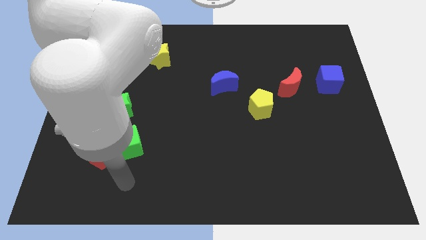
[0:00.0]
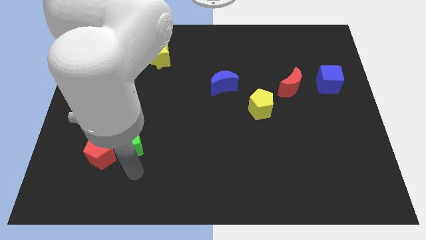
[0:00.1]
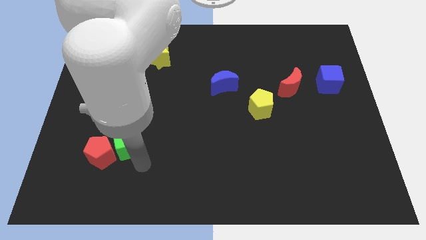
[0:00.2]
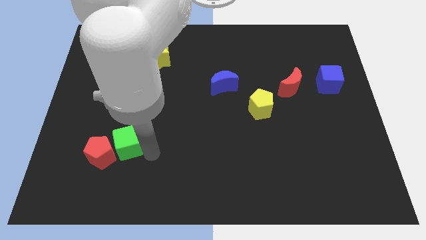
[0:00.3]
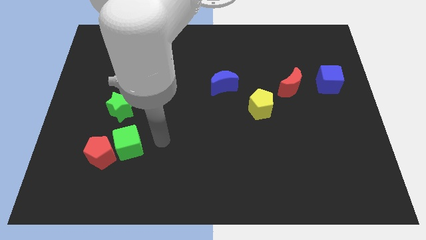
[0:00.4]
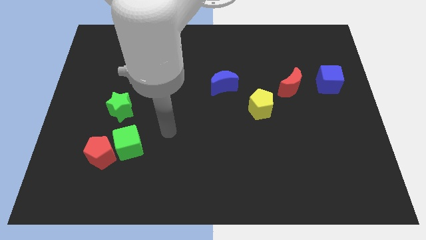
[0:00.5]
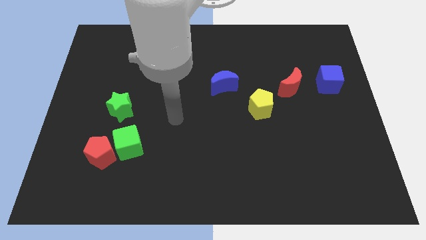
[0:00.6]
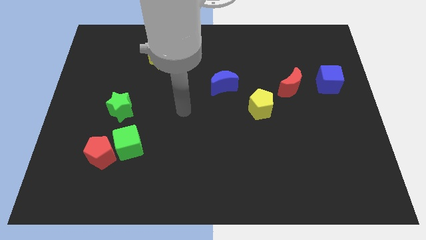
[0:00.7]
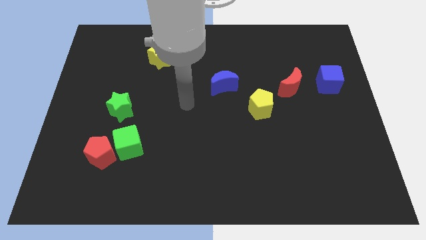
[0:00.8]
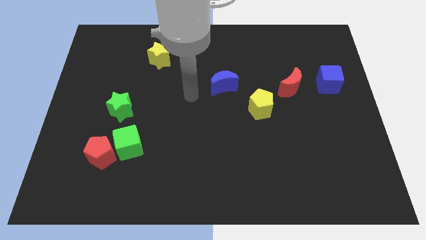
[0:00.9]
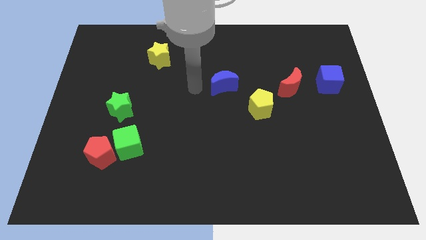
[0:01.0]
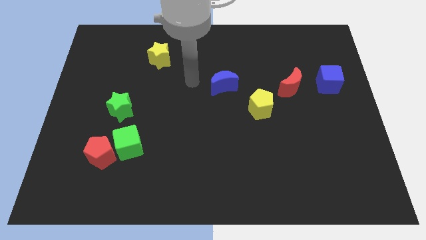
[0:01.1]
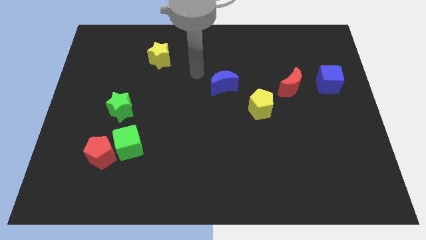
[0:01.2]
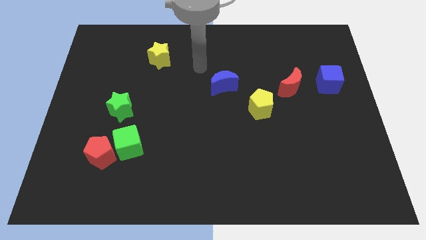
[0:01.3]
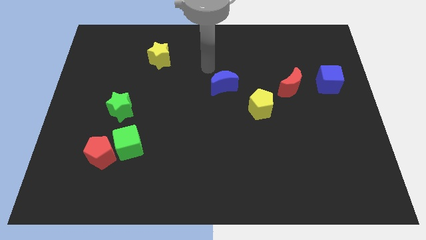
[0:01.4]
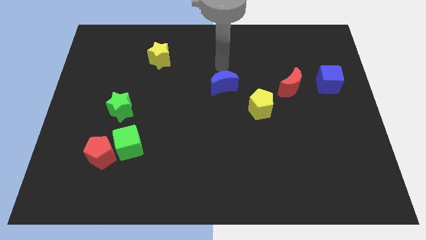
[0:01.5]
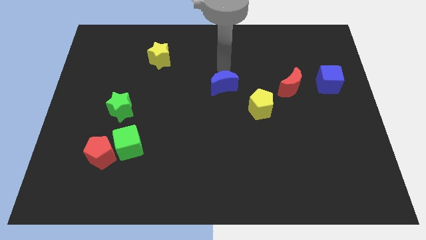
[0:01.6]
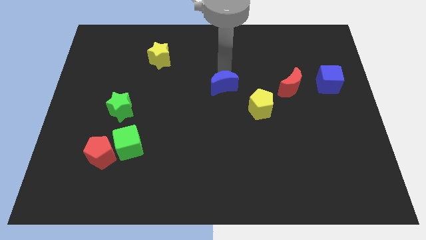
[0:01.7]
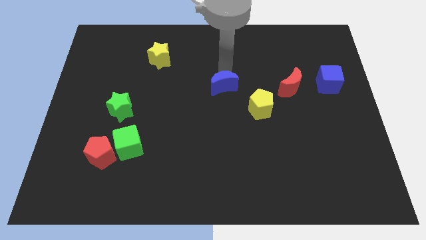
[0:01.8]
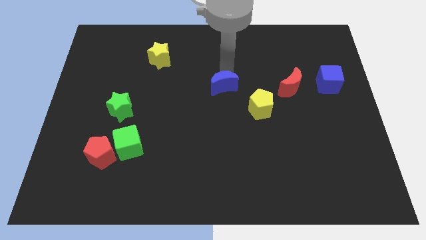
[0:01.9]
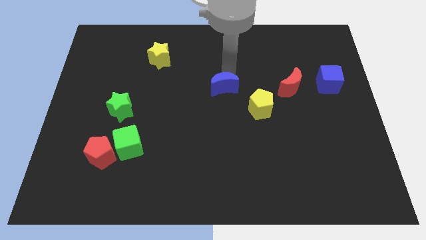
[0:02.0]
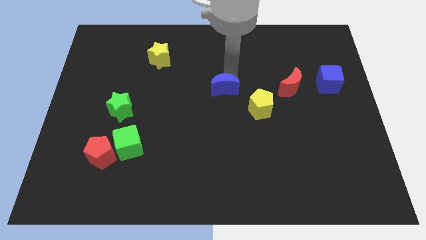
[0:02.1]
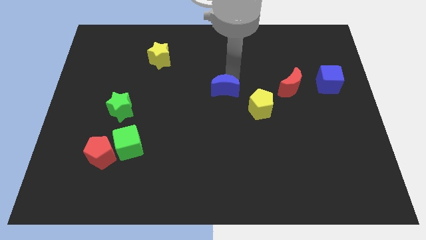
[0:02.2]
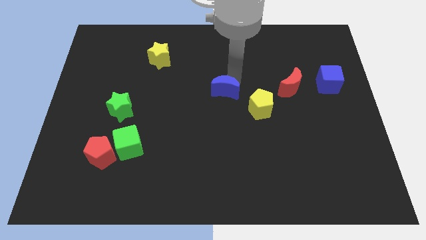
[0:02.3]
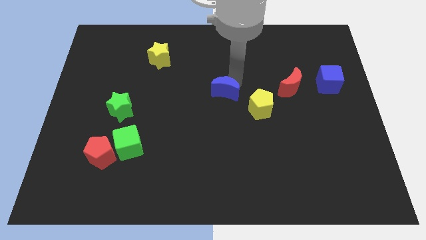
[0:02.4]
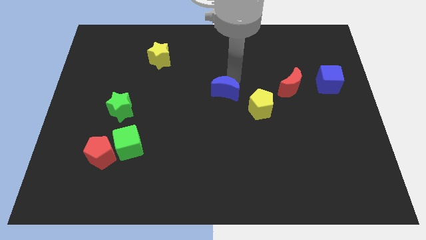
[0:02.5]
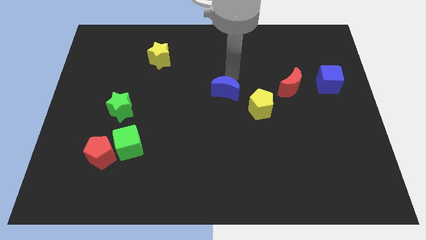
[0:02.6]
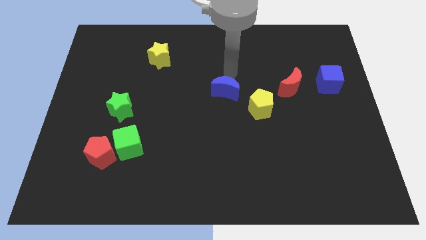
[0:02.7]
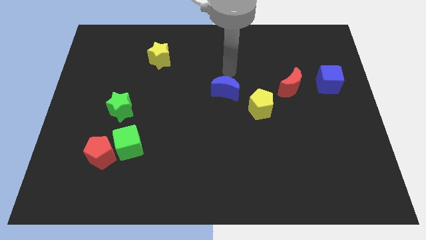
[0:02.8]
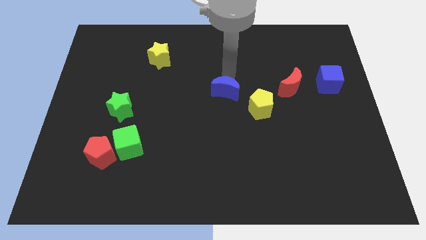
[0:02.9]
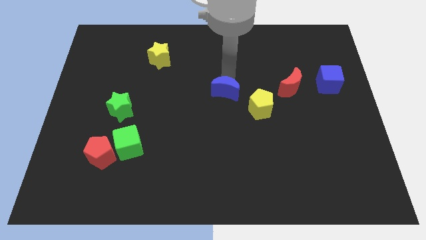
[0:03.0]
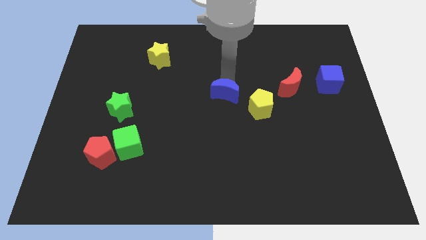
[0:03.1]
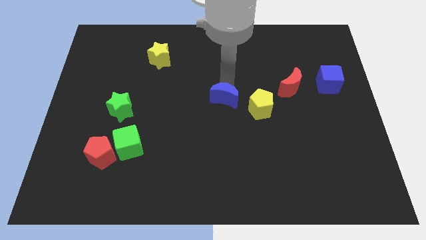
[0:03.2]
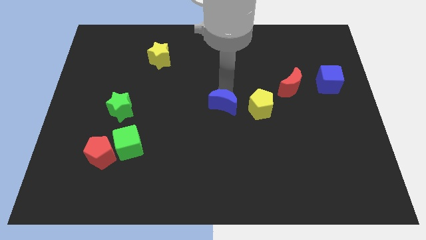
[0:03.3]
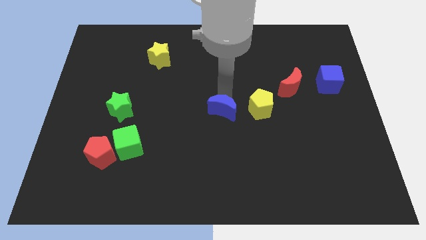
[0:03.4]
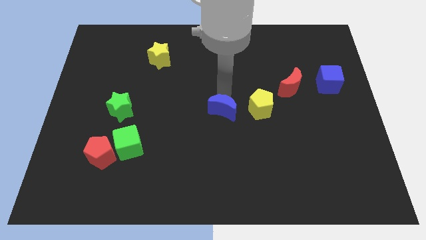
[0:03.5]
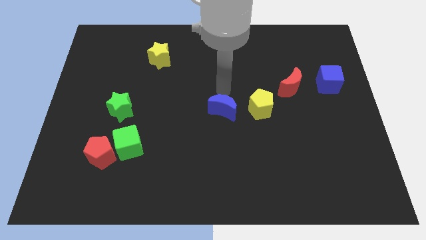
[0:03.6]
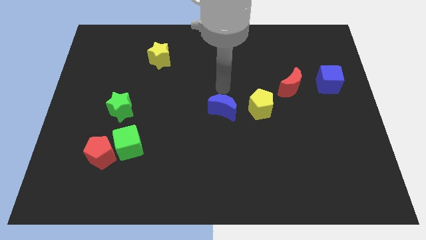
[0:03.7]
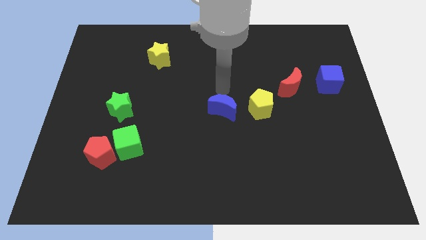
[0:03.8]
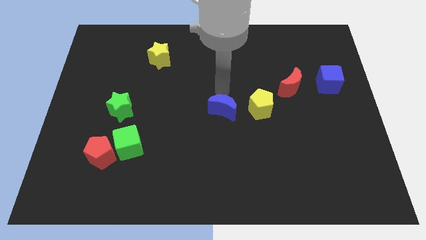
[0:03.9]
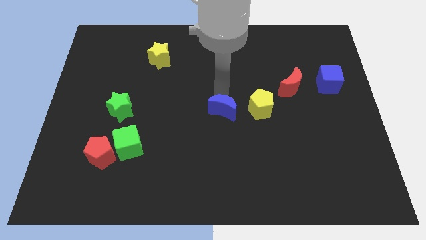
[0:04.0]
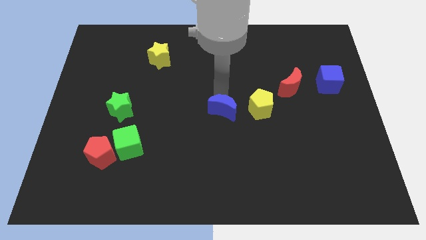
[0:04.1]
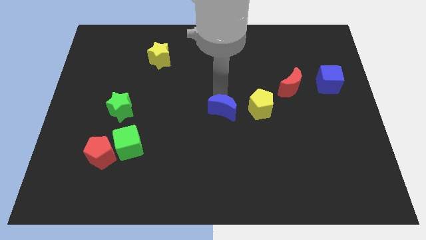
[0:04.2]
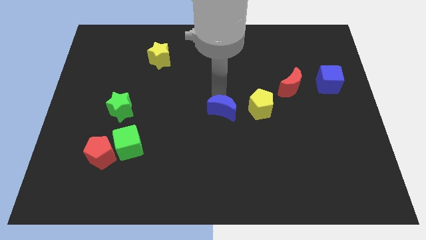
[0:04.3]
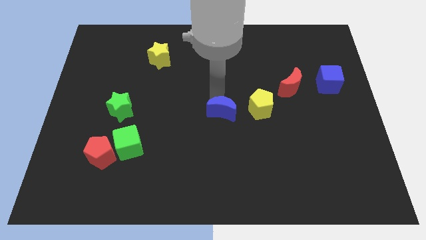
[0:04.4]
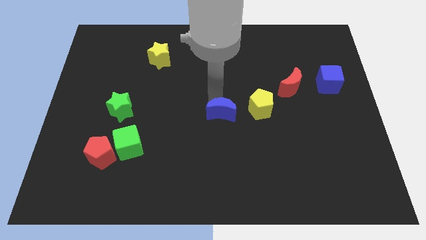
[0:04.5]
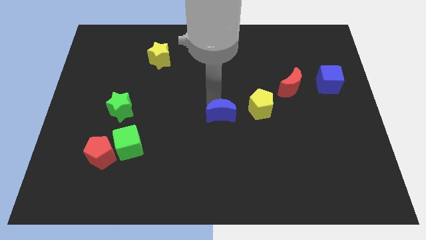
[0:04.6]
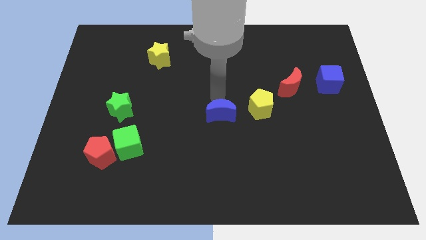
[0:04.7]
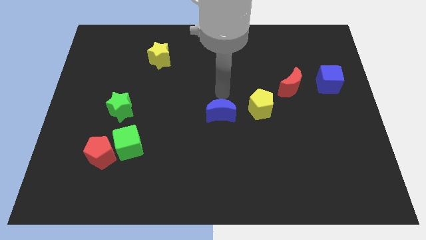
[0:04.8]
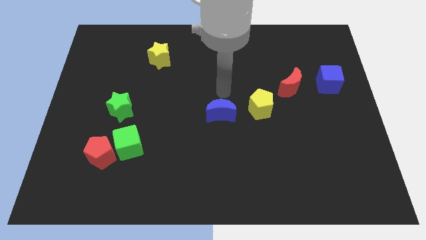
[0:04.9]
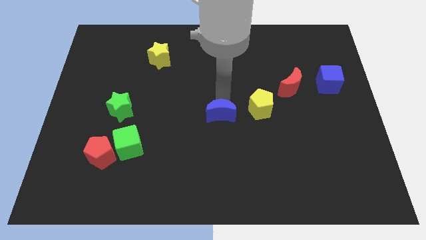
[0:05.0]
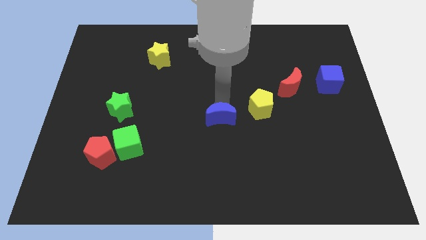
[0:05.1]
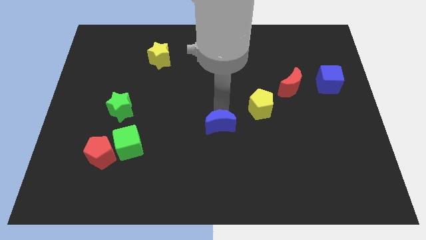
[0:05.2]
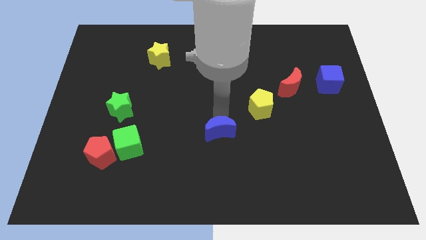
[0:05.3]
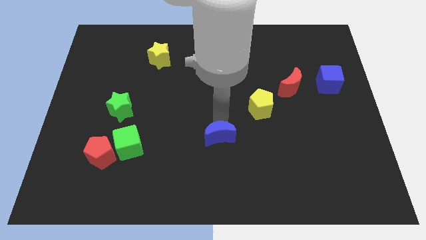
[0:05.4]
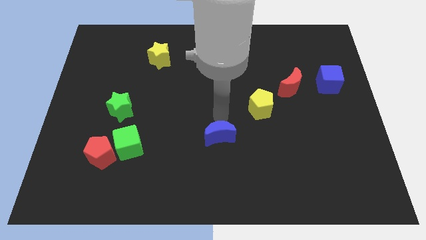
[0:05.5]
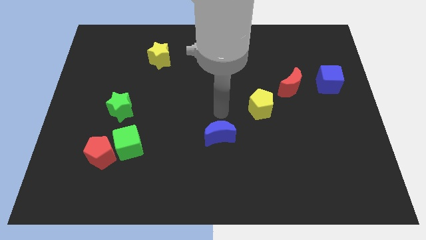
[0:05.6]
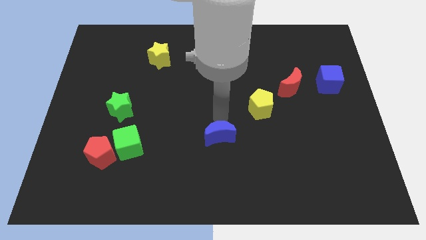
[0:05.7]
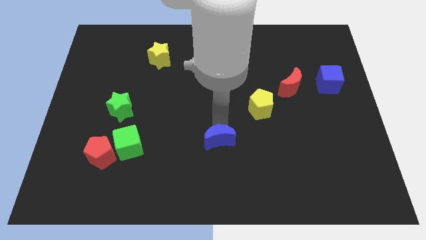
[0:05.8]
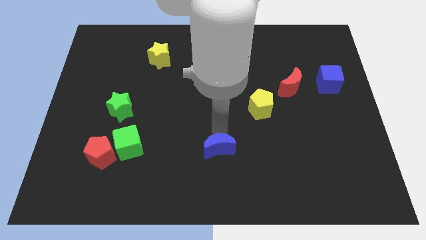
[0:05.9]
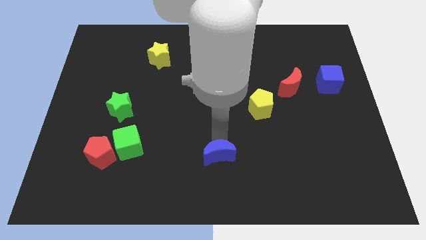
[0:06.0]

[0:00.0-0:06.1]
move the blue moon to the bottom
